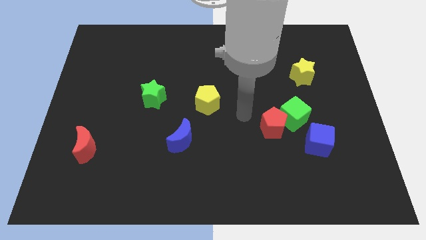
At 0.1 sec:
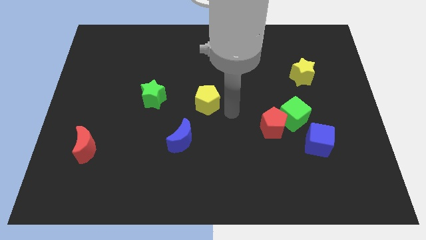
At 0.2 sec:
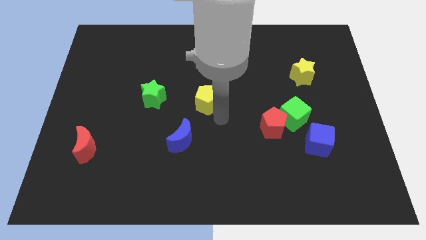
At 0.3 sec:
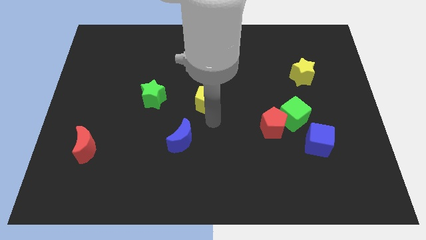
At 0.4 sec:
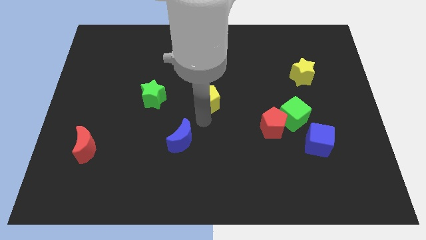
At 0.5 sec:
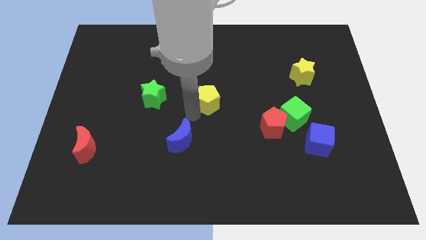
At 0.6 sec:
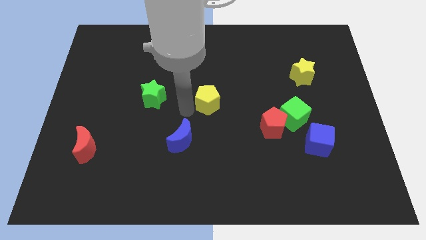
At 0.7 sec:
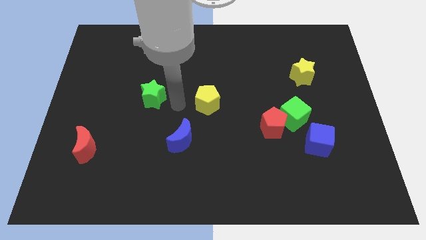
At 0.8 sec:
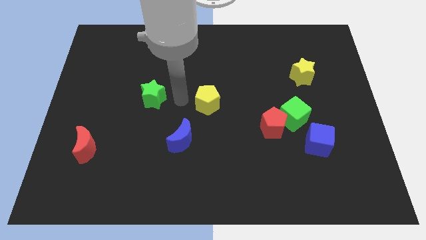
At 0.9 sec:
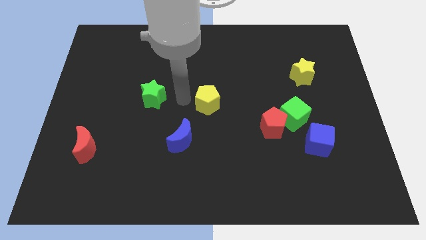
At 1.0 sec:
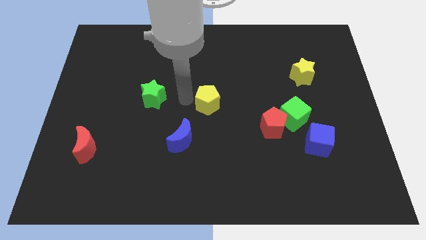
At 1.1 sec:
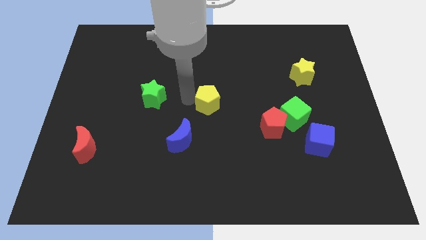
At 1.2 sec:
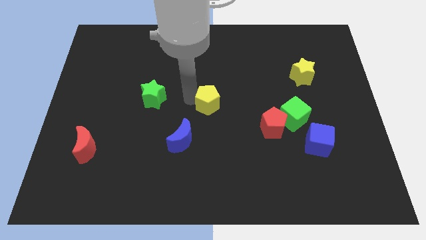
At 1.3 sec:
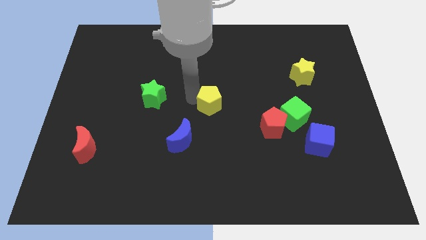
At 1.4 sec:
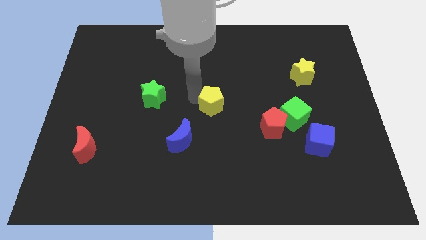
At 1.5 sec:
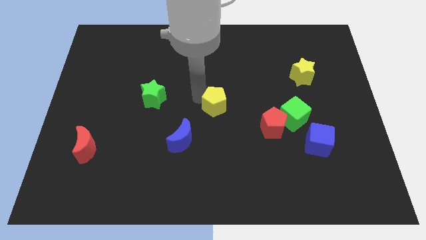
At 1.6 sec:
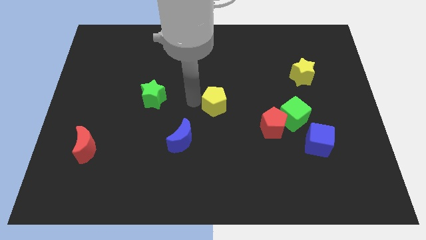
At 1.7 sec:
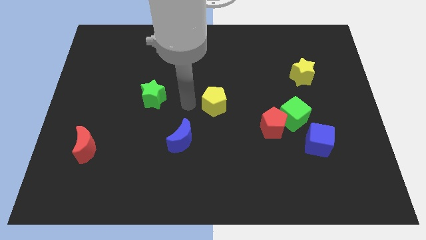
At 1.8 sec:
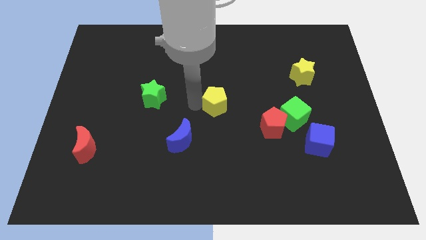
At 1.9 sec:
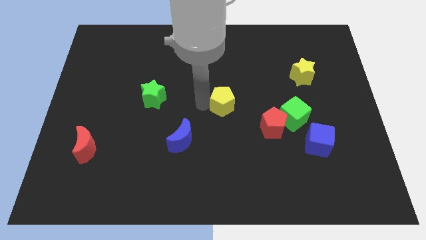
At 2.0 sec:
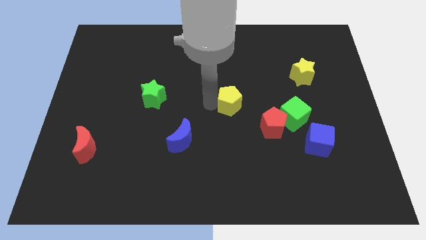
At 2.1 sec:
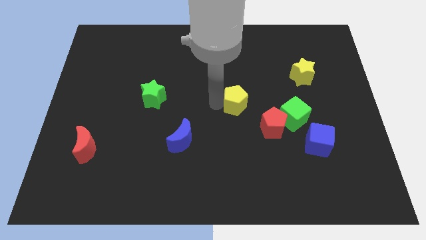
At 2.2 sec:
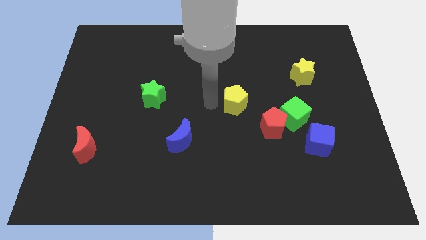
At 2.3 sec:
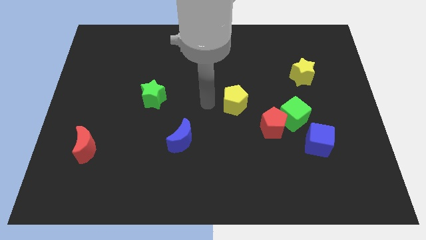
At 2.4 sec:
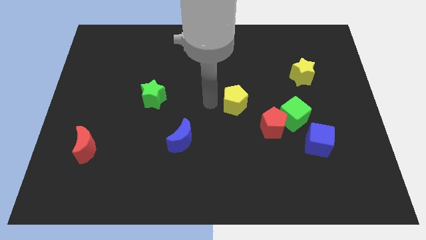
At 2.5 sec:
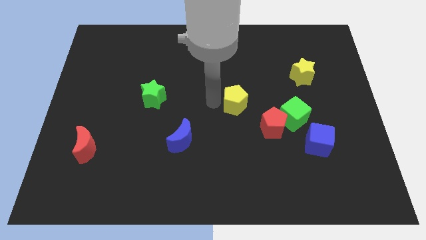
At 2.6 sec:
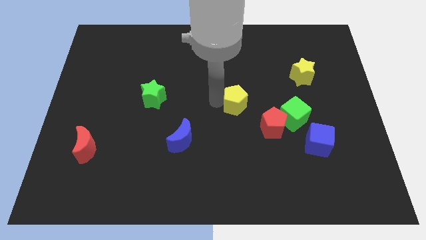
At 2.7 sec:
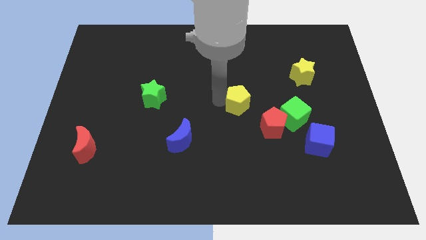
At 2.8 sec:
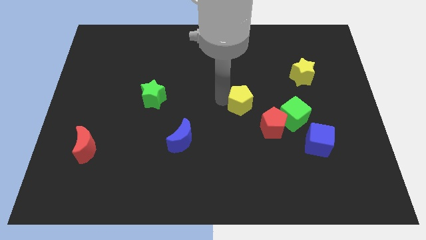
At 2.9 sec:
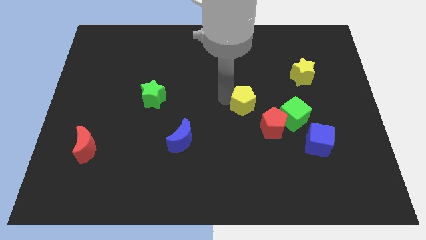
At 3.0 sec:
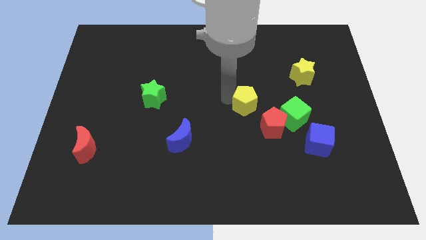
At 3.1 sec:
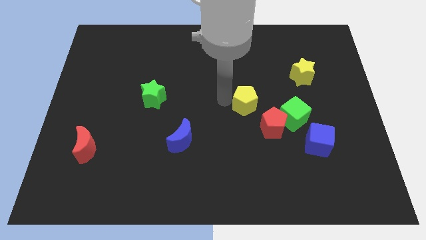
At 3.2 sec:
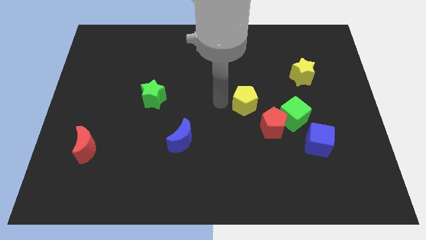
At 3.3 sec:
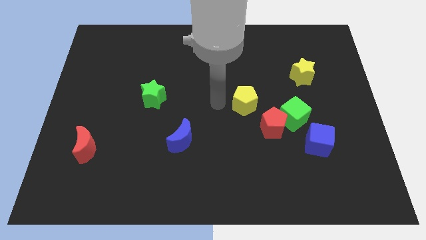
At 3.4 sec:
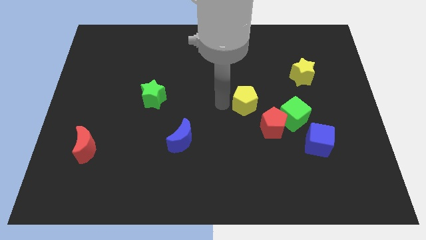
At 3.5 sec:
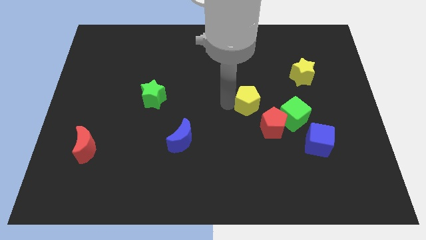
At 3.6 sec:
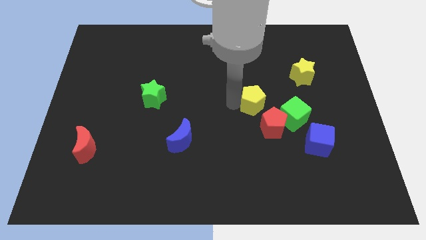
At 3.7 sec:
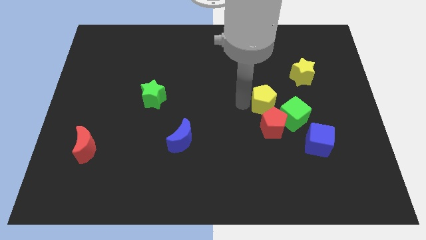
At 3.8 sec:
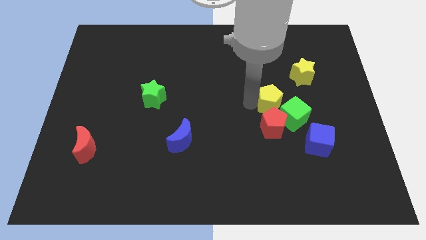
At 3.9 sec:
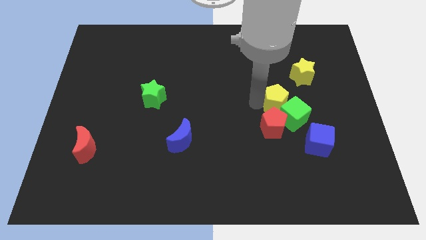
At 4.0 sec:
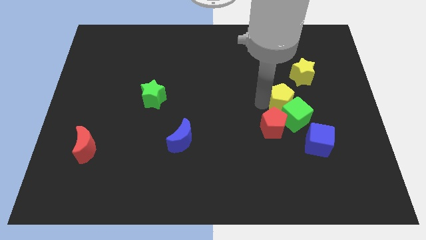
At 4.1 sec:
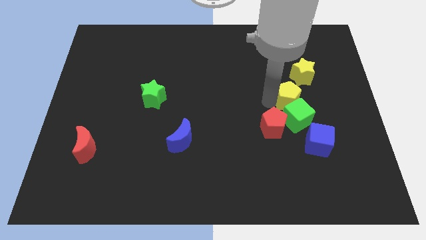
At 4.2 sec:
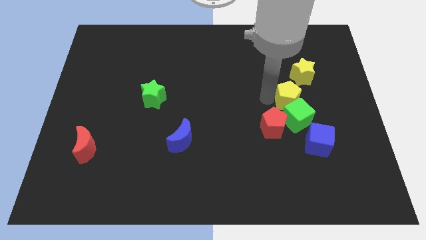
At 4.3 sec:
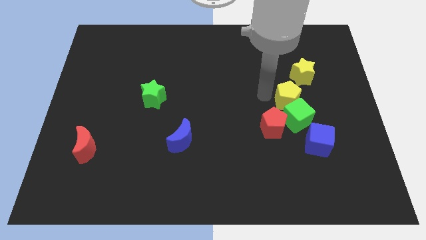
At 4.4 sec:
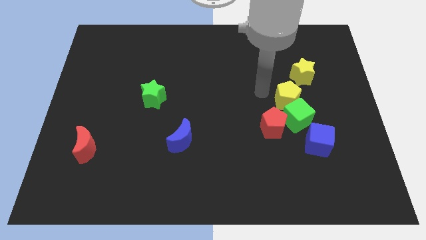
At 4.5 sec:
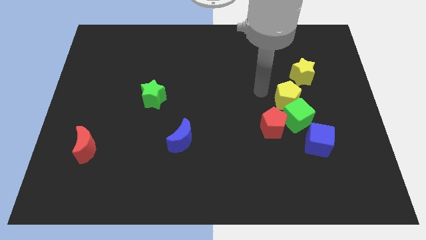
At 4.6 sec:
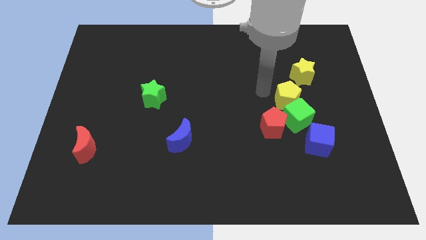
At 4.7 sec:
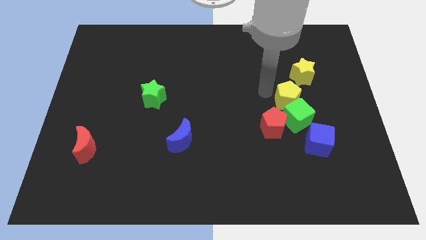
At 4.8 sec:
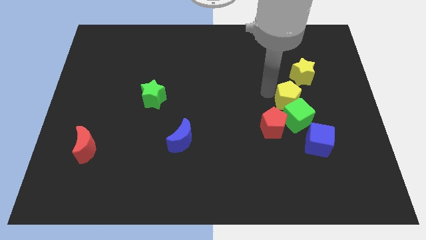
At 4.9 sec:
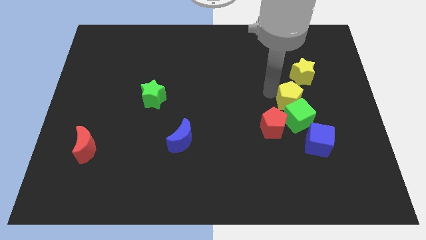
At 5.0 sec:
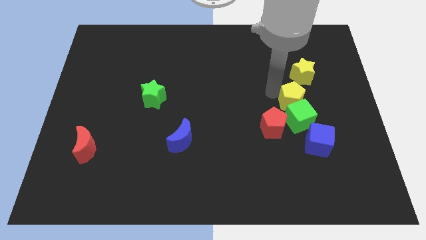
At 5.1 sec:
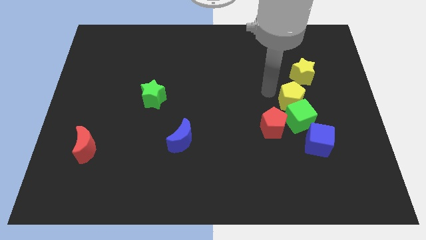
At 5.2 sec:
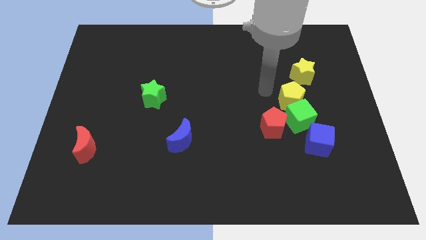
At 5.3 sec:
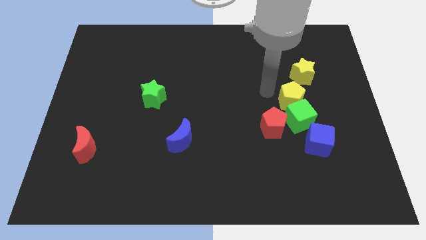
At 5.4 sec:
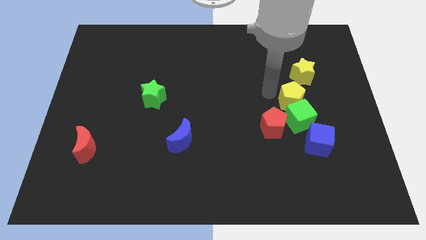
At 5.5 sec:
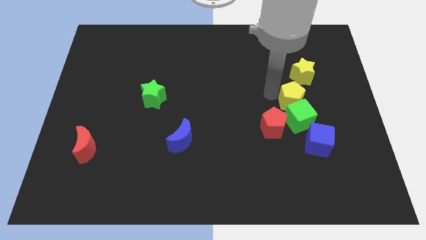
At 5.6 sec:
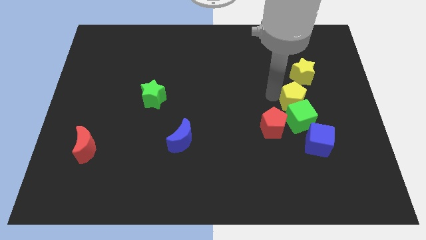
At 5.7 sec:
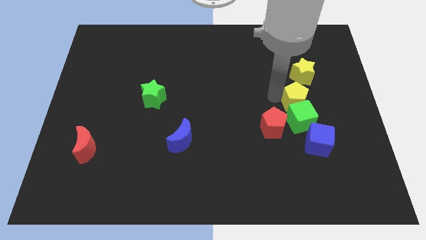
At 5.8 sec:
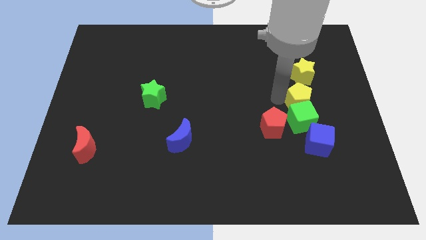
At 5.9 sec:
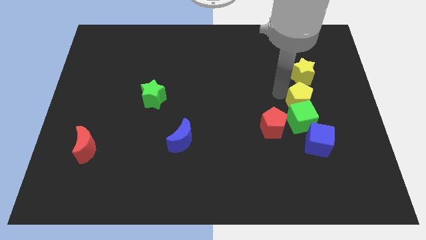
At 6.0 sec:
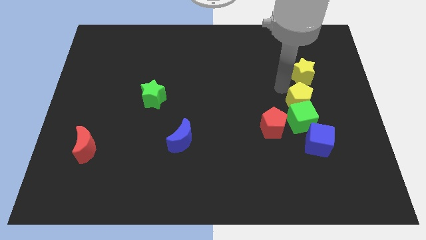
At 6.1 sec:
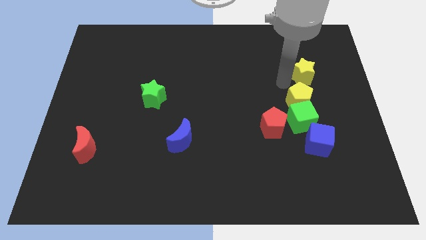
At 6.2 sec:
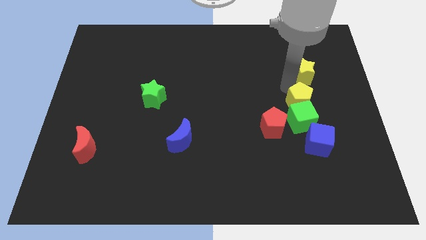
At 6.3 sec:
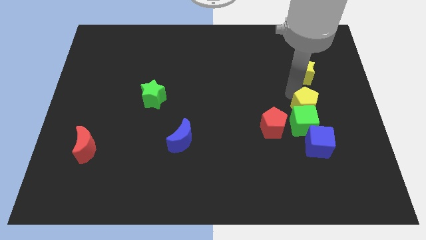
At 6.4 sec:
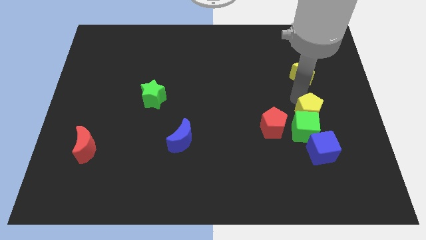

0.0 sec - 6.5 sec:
push the yellow pentagon just right of the red pentagon

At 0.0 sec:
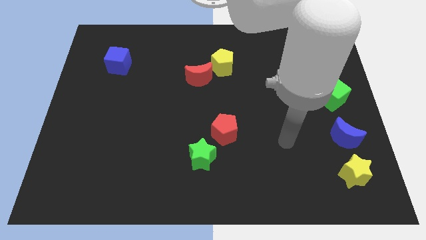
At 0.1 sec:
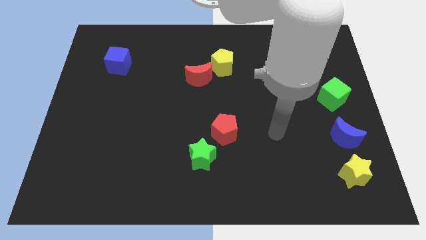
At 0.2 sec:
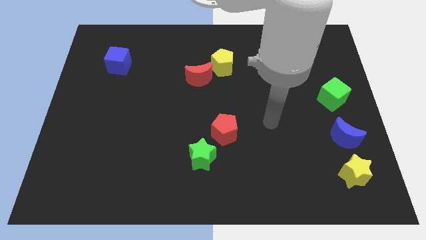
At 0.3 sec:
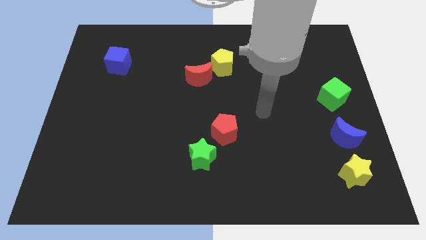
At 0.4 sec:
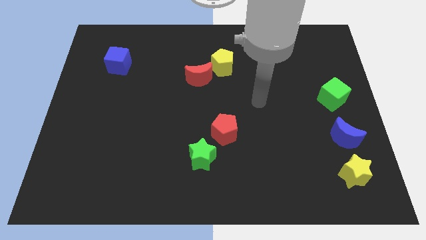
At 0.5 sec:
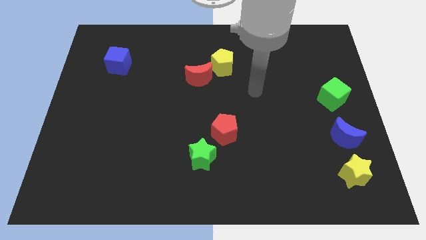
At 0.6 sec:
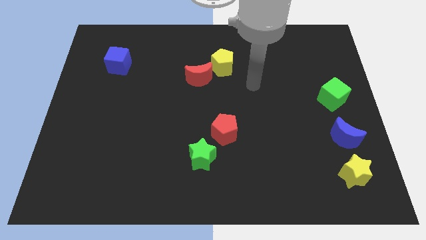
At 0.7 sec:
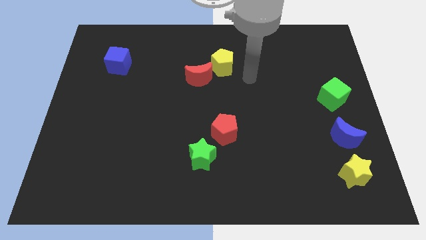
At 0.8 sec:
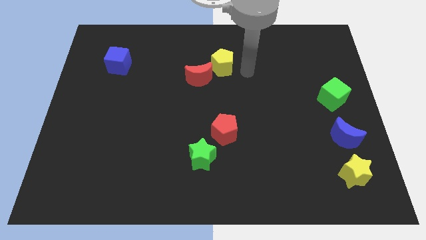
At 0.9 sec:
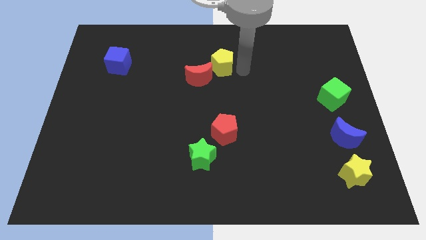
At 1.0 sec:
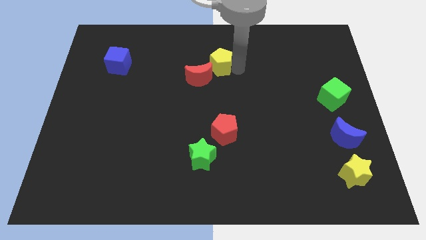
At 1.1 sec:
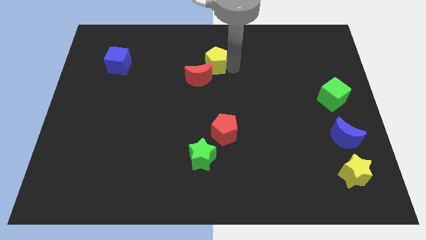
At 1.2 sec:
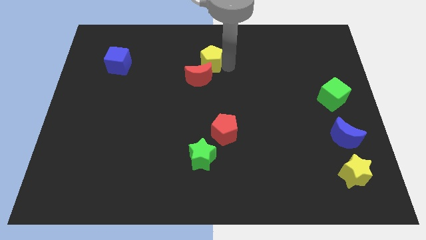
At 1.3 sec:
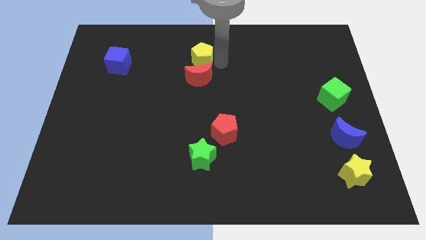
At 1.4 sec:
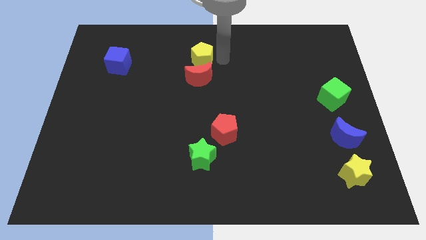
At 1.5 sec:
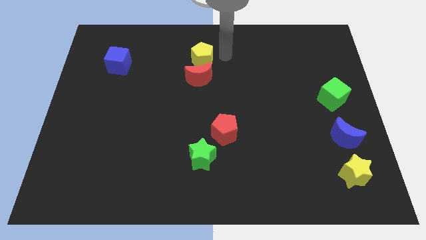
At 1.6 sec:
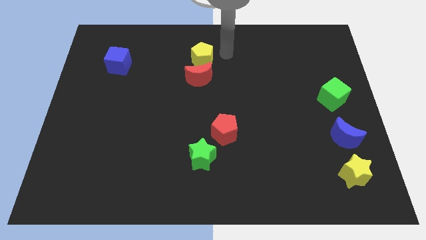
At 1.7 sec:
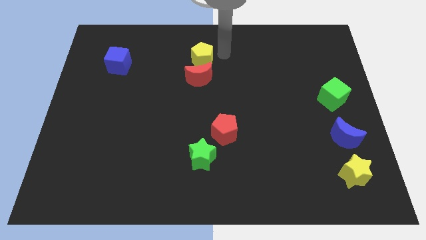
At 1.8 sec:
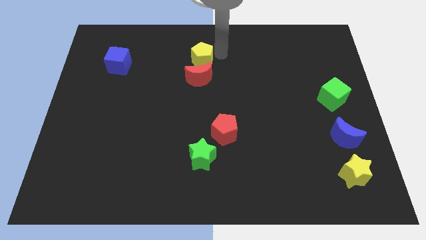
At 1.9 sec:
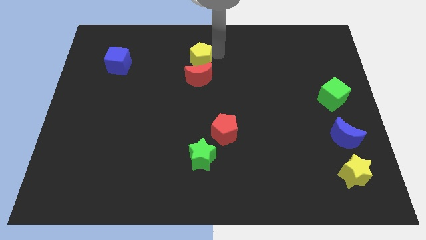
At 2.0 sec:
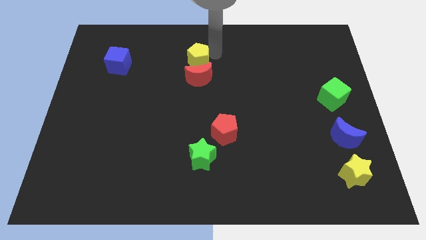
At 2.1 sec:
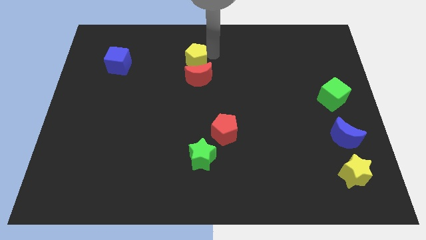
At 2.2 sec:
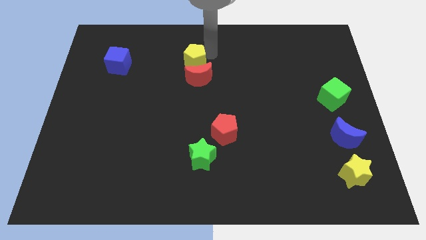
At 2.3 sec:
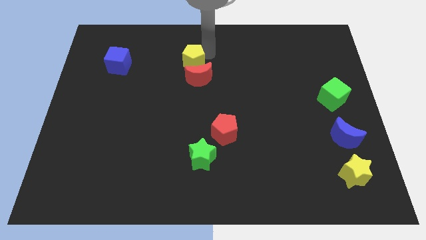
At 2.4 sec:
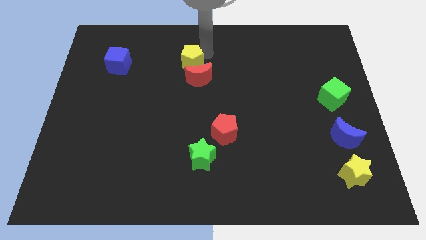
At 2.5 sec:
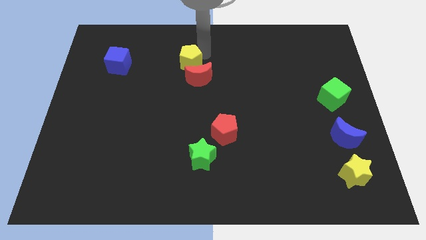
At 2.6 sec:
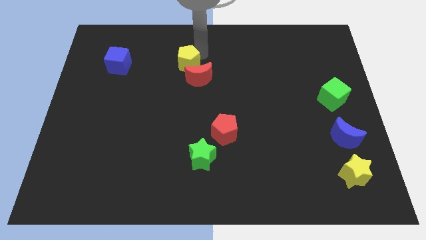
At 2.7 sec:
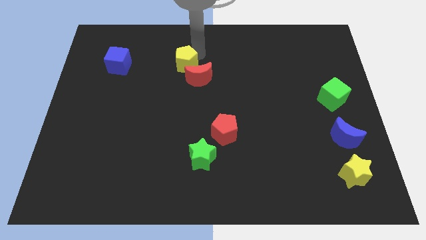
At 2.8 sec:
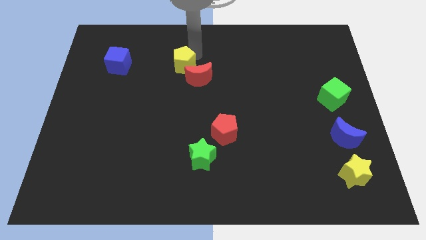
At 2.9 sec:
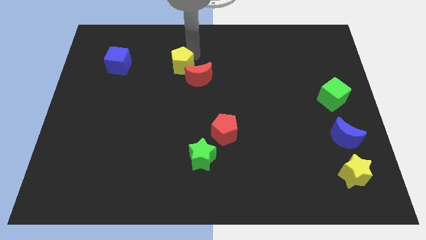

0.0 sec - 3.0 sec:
move the yellow pentagon just left of the red moon
